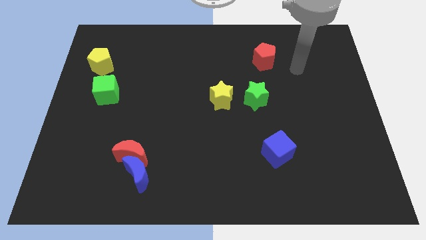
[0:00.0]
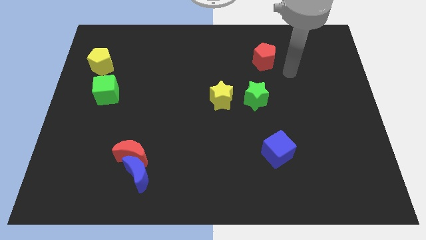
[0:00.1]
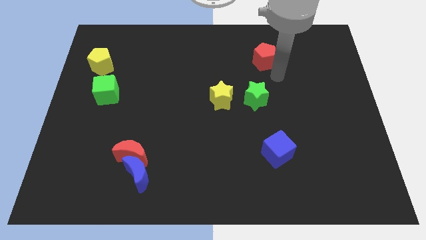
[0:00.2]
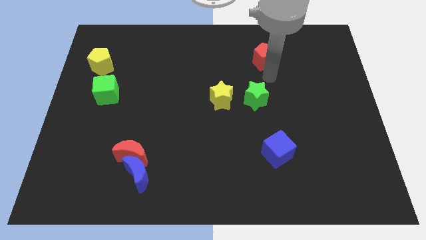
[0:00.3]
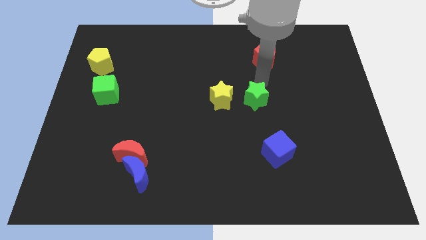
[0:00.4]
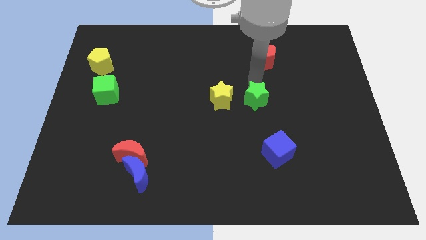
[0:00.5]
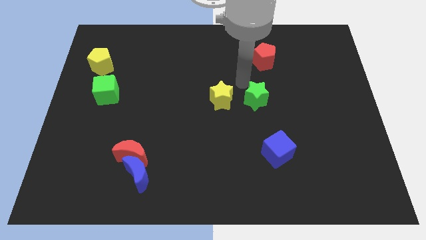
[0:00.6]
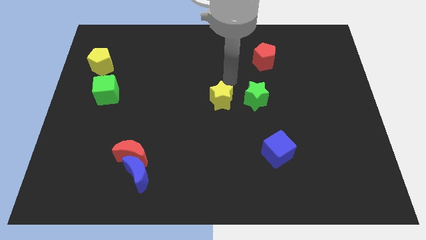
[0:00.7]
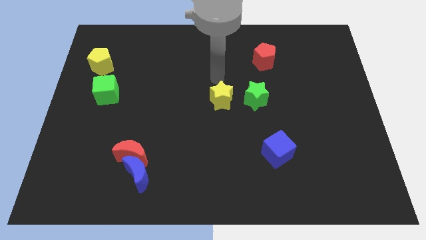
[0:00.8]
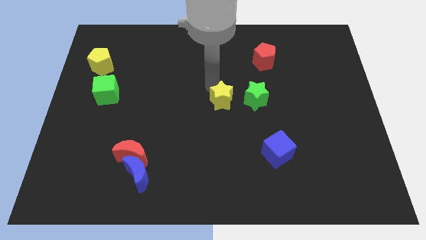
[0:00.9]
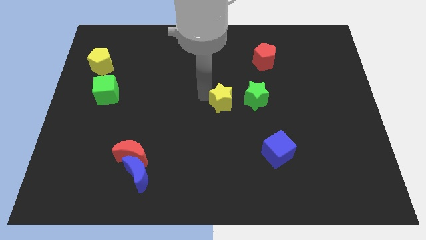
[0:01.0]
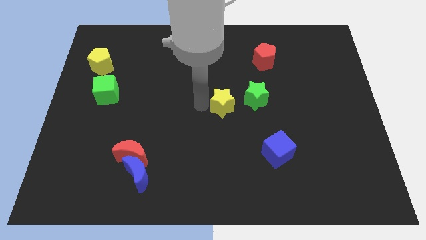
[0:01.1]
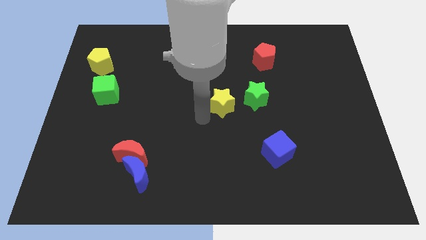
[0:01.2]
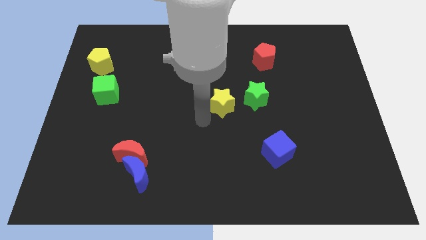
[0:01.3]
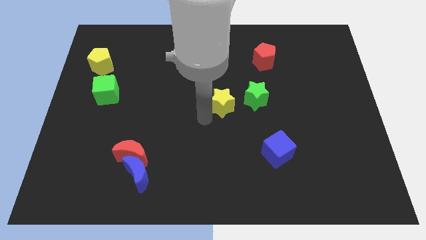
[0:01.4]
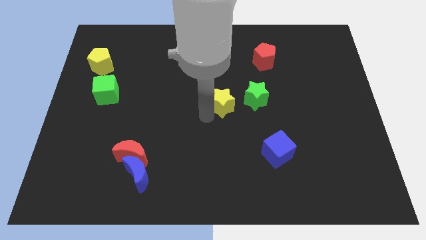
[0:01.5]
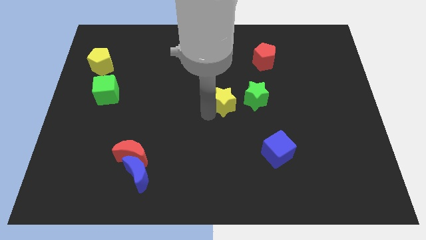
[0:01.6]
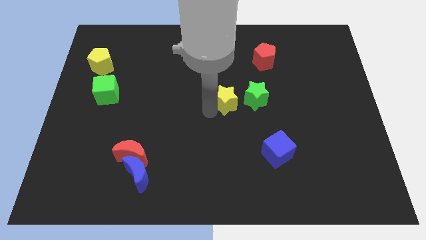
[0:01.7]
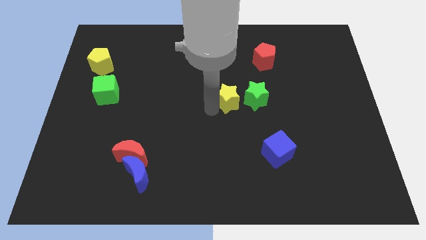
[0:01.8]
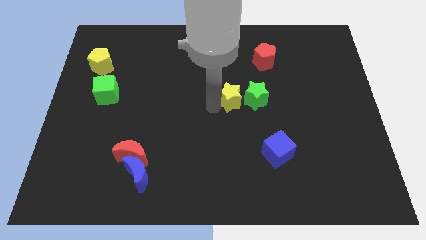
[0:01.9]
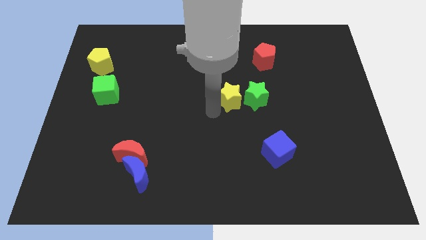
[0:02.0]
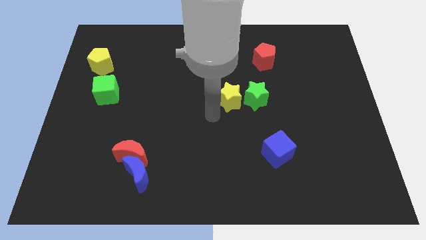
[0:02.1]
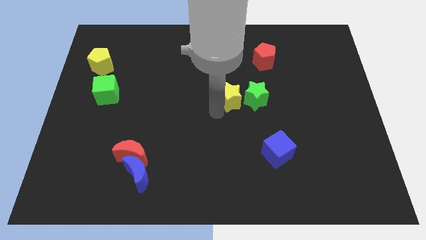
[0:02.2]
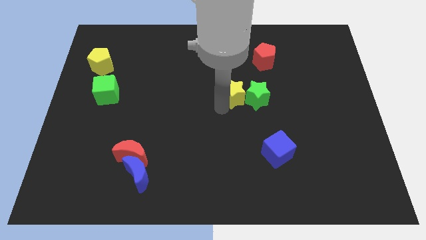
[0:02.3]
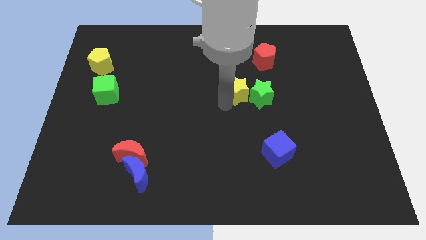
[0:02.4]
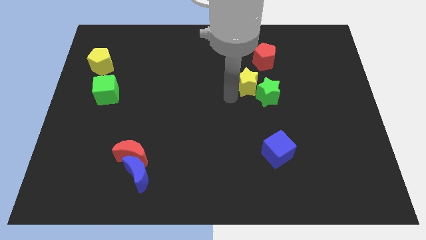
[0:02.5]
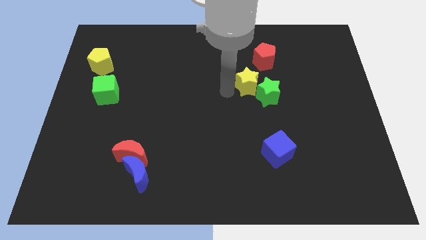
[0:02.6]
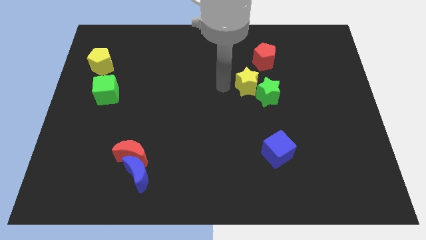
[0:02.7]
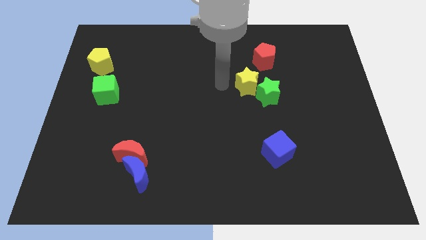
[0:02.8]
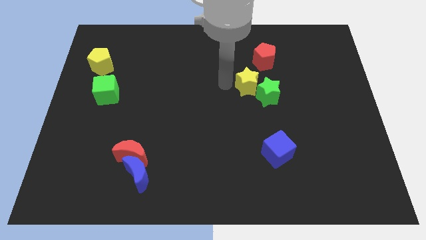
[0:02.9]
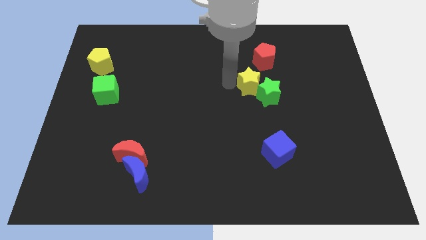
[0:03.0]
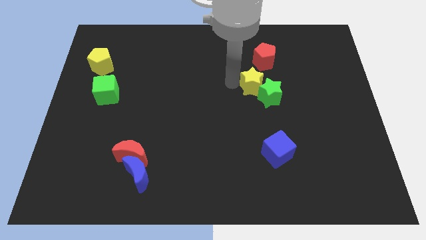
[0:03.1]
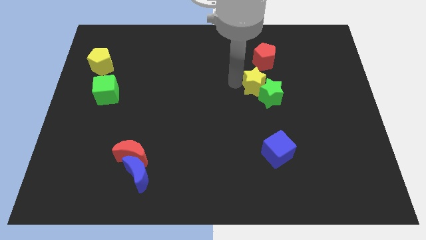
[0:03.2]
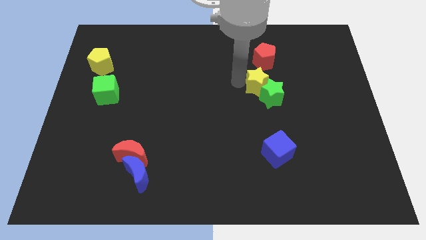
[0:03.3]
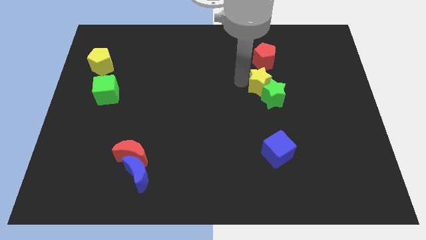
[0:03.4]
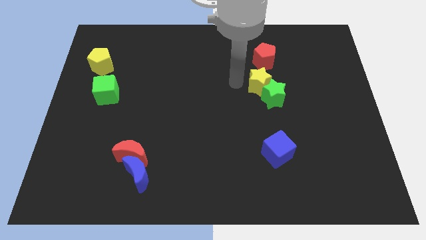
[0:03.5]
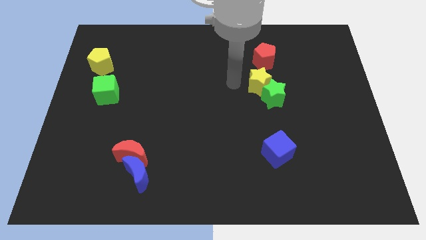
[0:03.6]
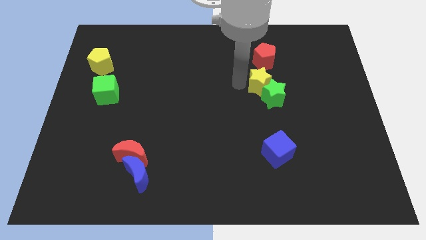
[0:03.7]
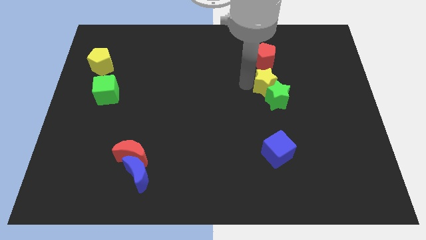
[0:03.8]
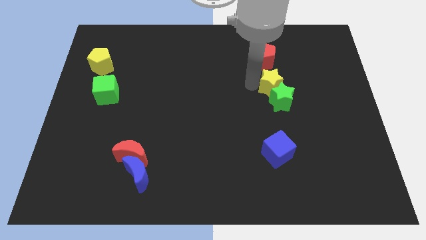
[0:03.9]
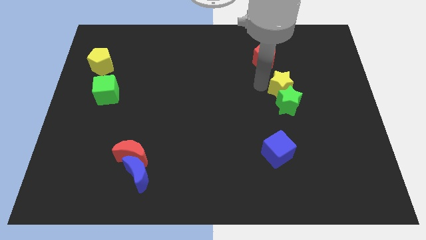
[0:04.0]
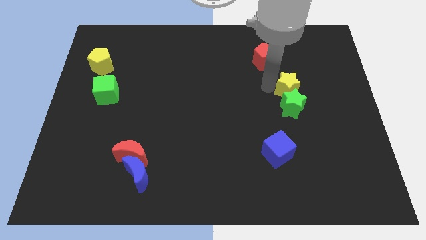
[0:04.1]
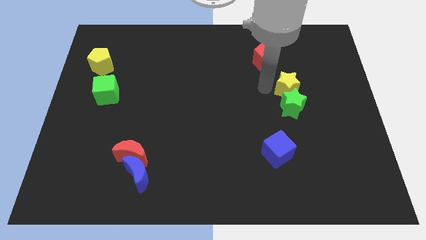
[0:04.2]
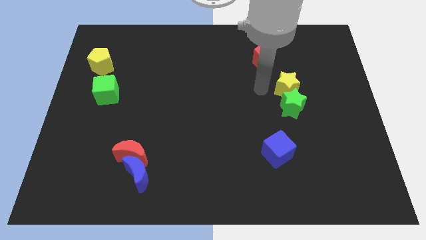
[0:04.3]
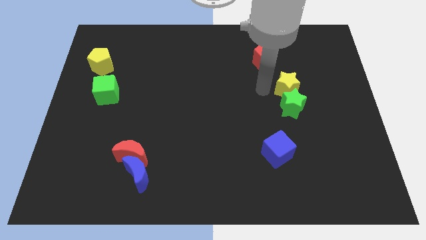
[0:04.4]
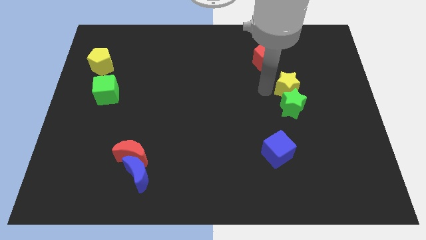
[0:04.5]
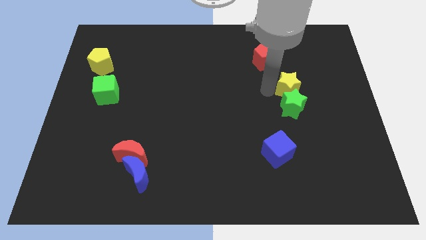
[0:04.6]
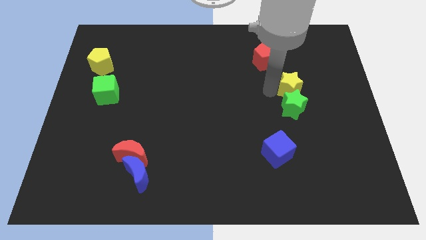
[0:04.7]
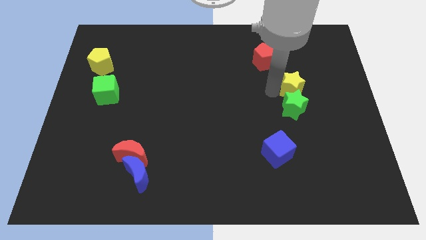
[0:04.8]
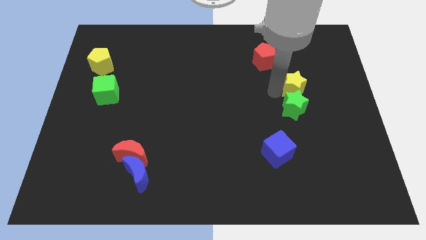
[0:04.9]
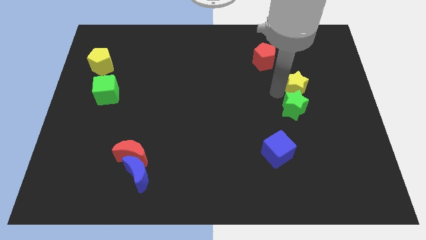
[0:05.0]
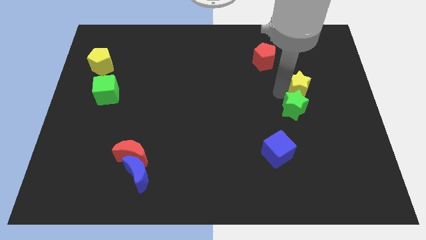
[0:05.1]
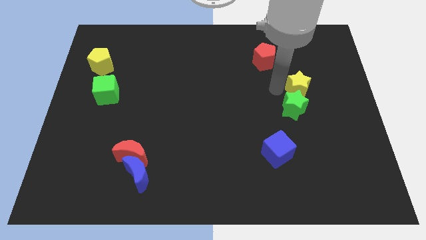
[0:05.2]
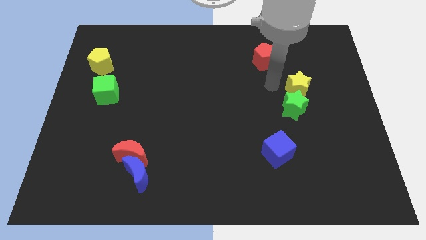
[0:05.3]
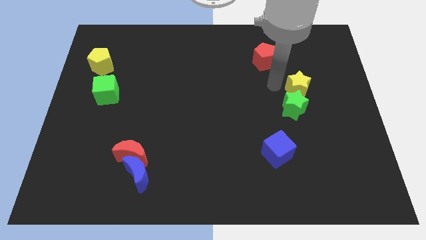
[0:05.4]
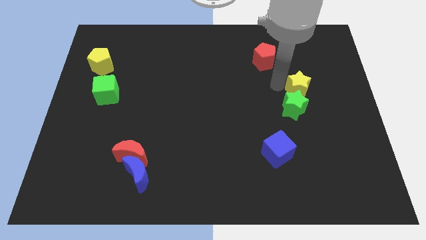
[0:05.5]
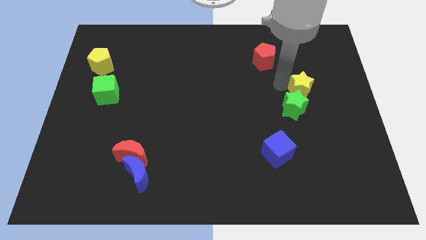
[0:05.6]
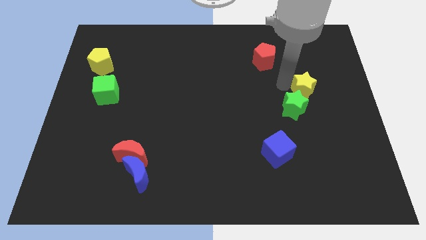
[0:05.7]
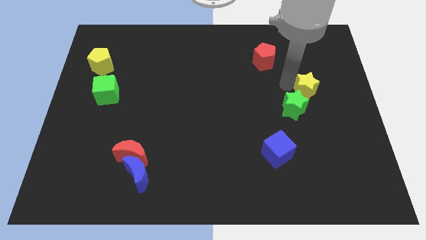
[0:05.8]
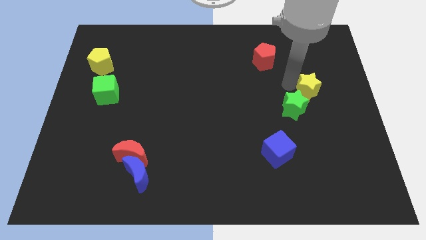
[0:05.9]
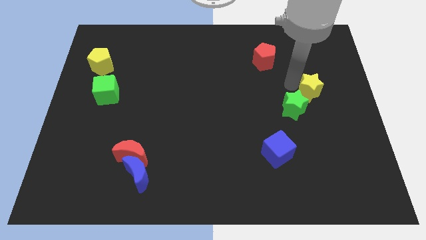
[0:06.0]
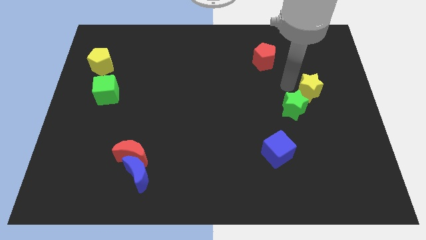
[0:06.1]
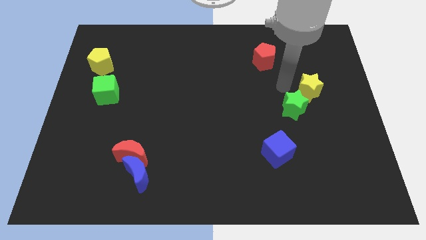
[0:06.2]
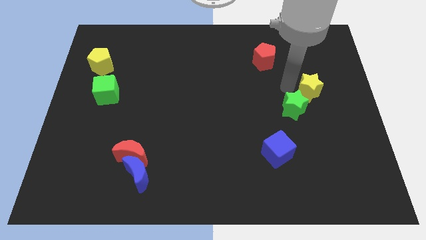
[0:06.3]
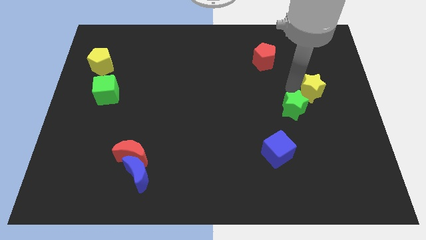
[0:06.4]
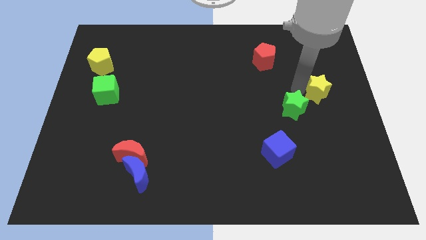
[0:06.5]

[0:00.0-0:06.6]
move the yellow star to the right side
